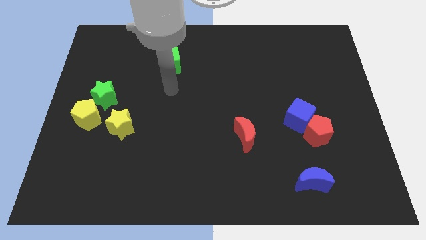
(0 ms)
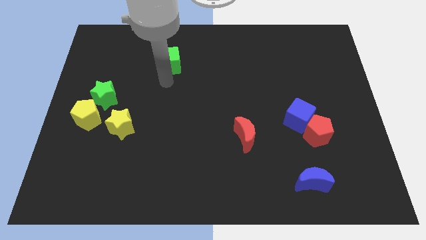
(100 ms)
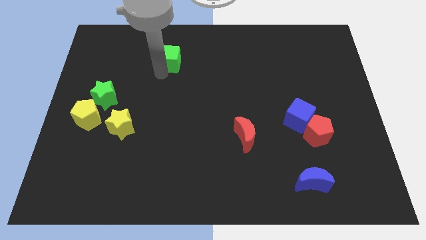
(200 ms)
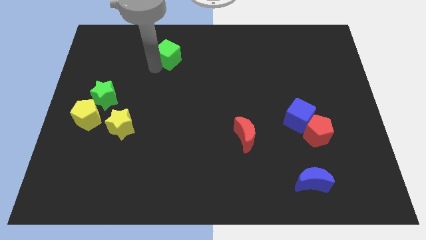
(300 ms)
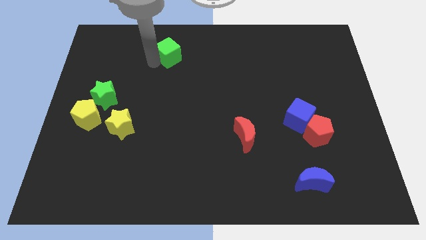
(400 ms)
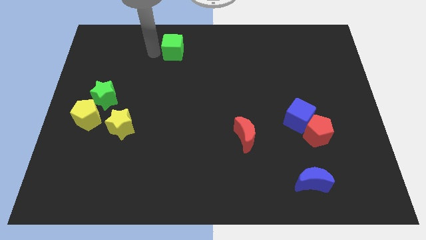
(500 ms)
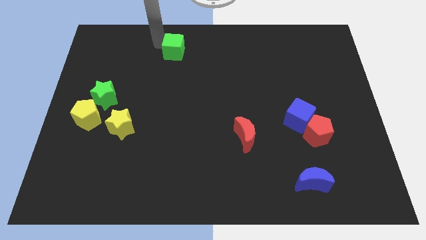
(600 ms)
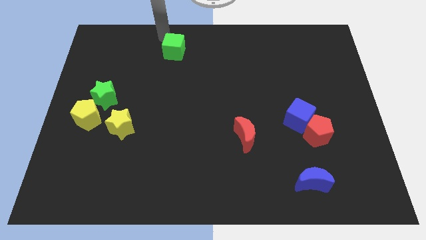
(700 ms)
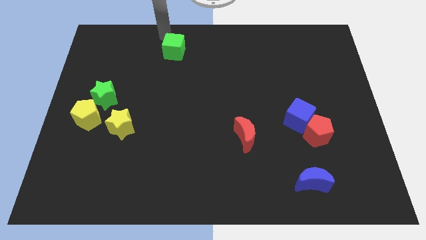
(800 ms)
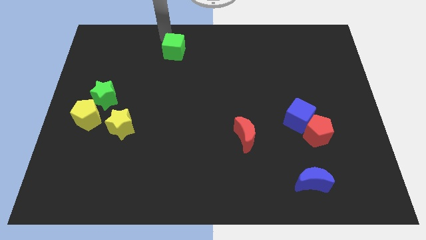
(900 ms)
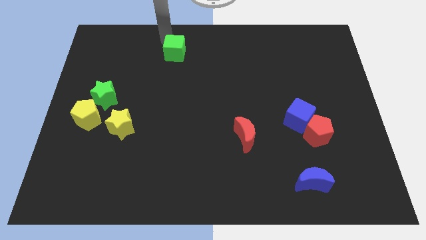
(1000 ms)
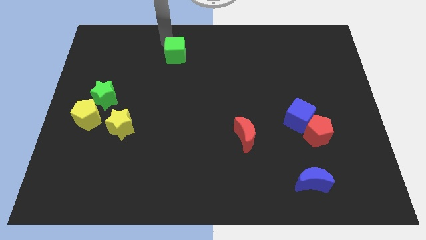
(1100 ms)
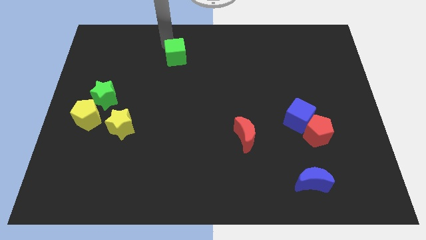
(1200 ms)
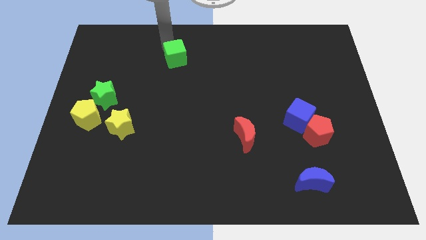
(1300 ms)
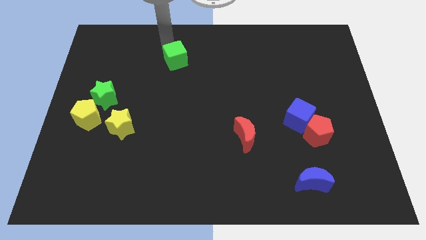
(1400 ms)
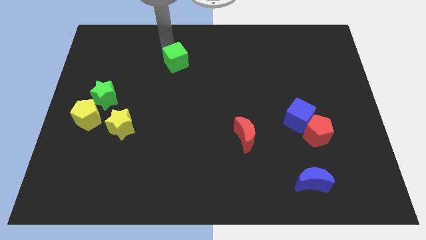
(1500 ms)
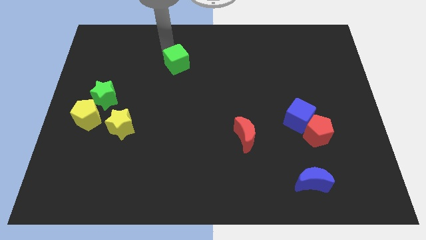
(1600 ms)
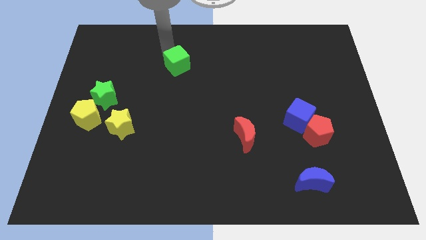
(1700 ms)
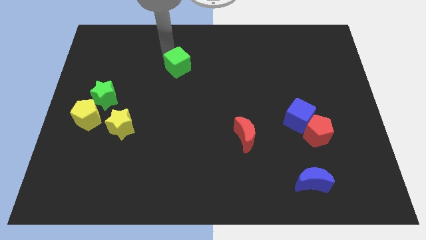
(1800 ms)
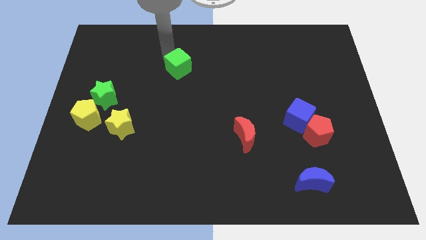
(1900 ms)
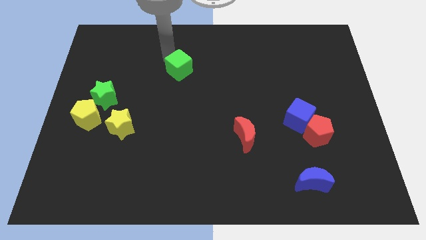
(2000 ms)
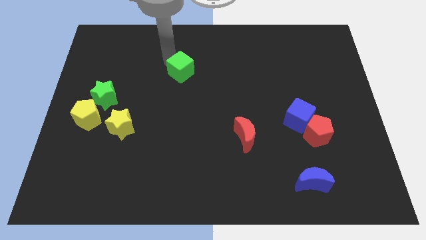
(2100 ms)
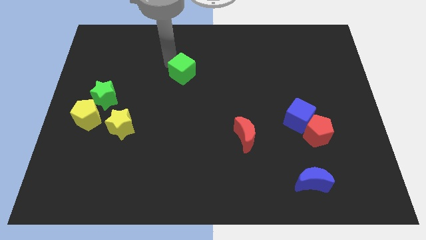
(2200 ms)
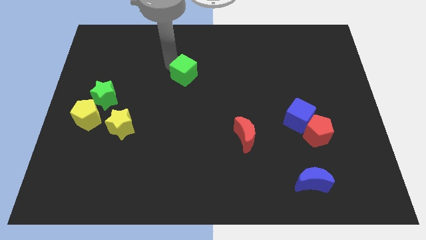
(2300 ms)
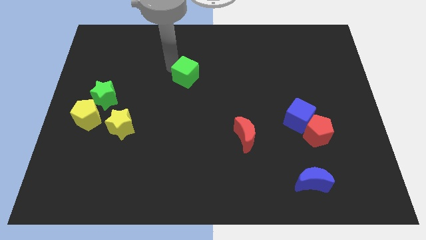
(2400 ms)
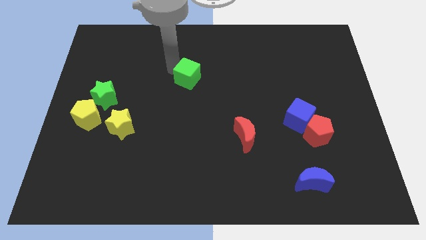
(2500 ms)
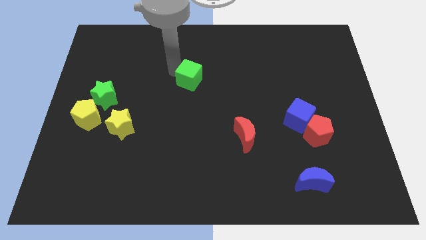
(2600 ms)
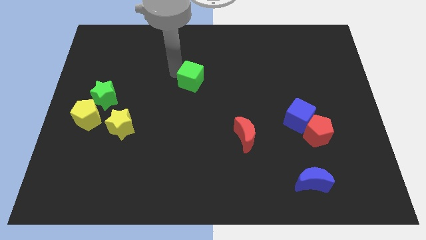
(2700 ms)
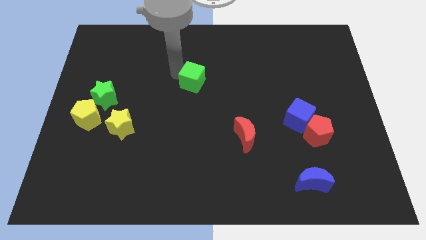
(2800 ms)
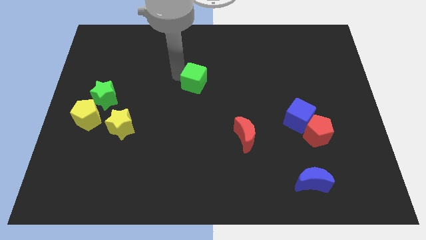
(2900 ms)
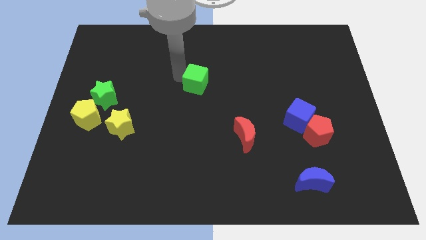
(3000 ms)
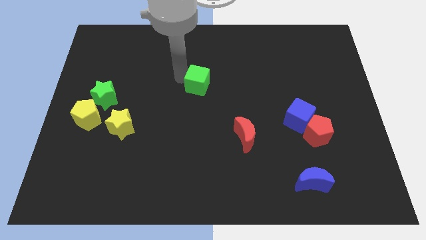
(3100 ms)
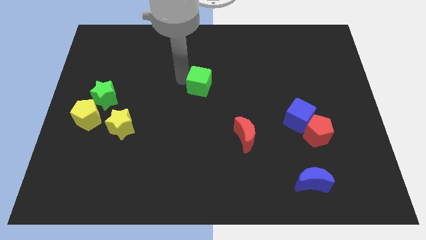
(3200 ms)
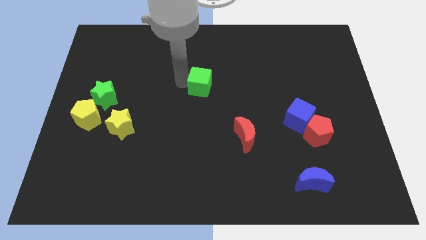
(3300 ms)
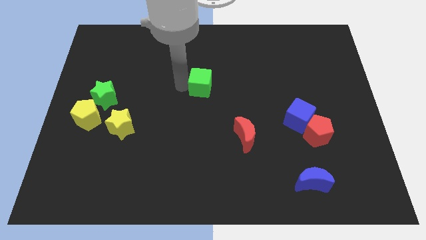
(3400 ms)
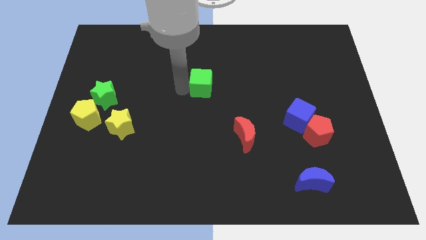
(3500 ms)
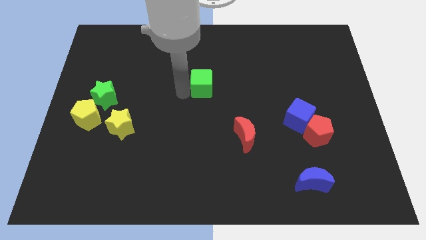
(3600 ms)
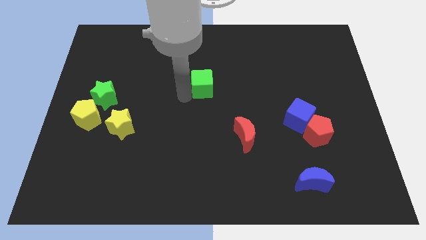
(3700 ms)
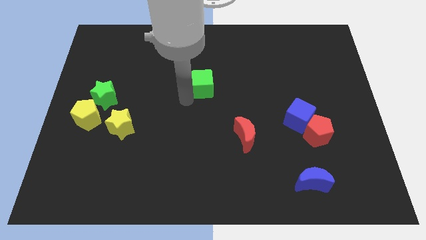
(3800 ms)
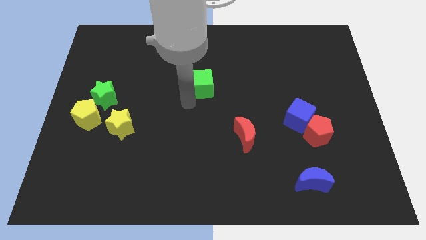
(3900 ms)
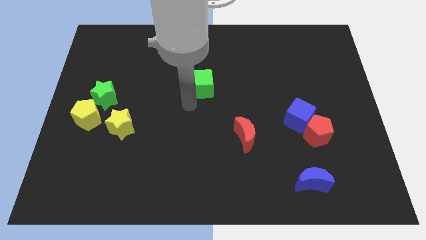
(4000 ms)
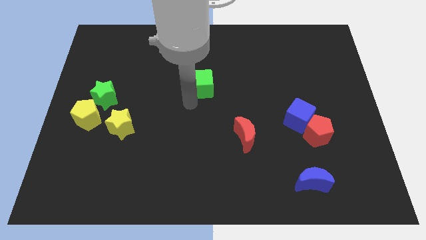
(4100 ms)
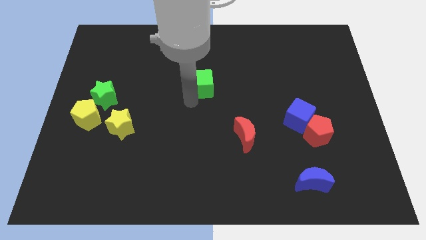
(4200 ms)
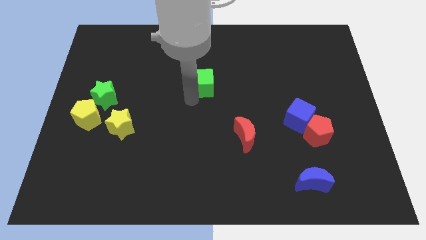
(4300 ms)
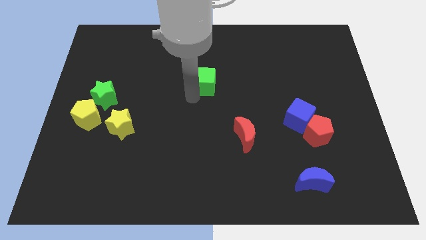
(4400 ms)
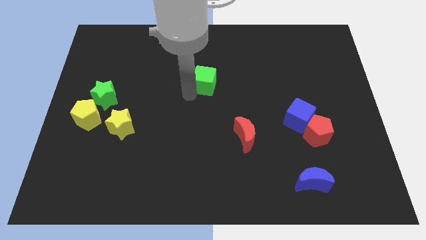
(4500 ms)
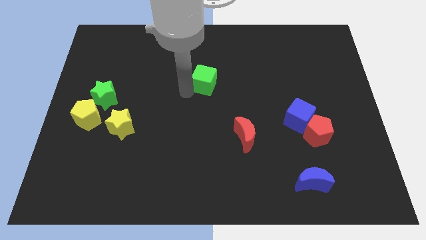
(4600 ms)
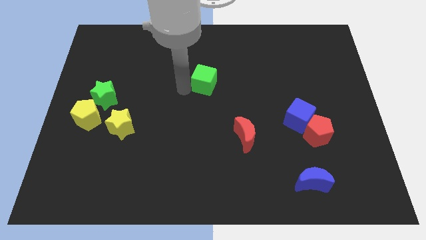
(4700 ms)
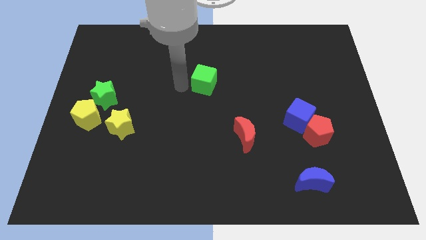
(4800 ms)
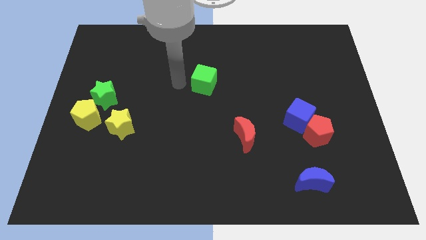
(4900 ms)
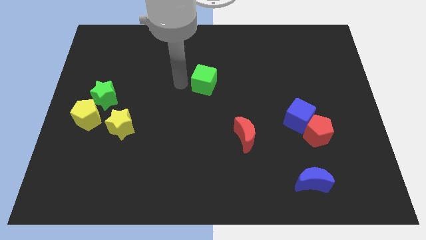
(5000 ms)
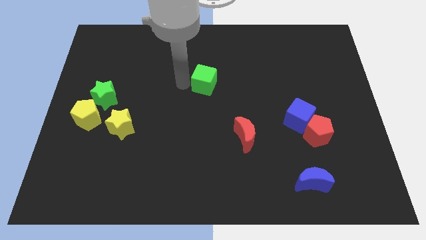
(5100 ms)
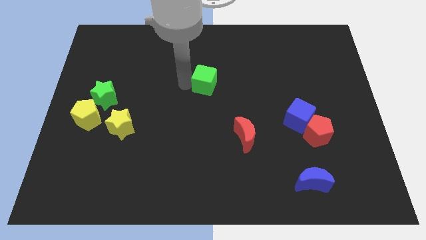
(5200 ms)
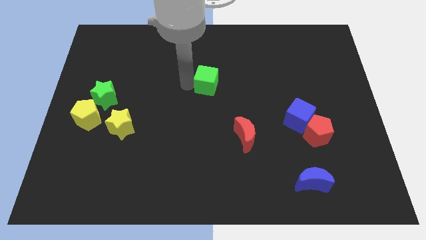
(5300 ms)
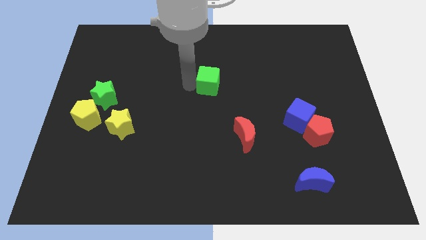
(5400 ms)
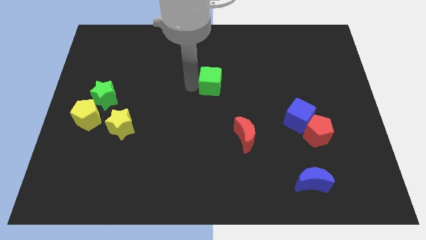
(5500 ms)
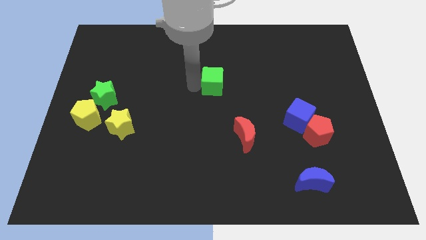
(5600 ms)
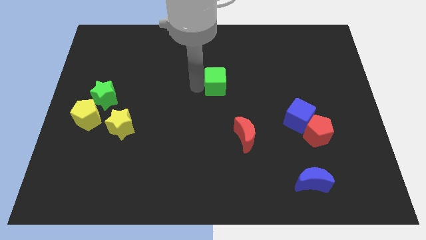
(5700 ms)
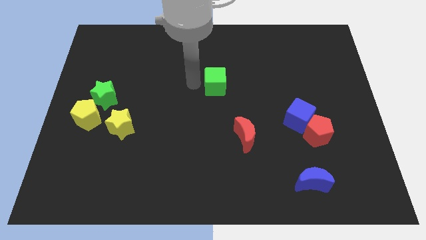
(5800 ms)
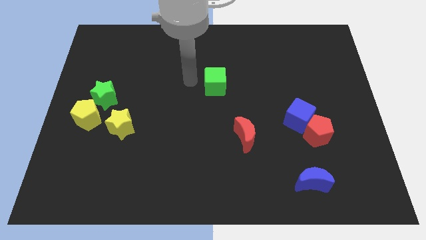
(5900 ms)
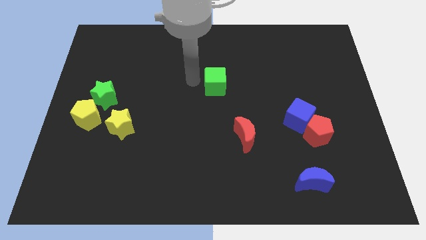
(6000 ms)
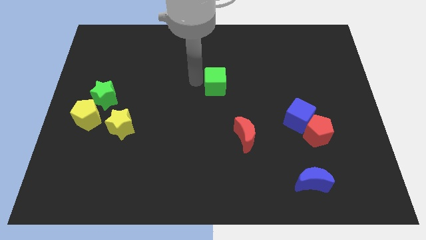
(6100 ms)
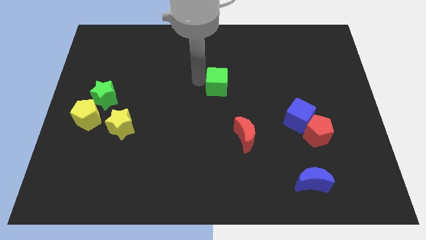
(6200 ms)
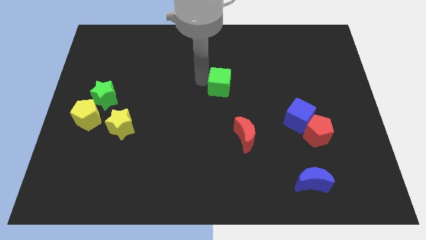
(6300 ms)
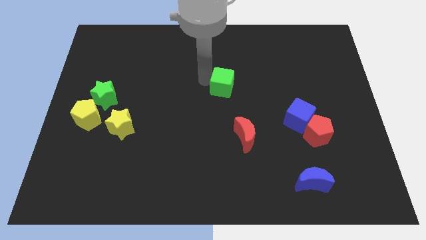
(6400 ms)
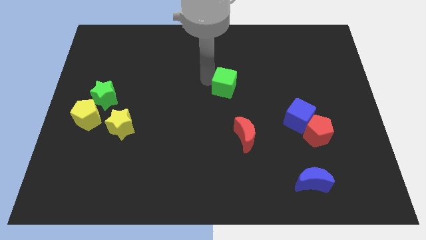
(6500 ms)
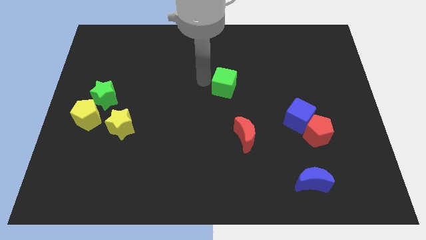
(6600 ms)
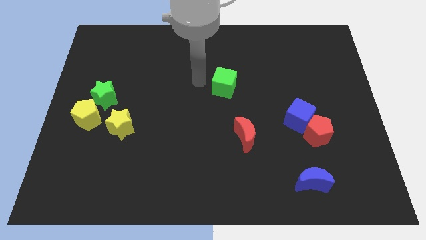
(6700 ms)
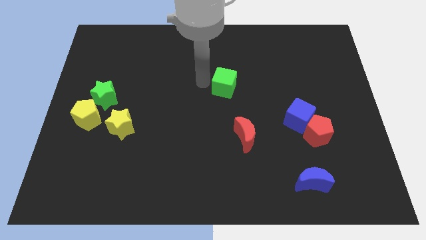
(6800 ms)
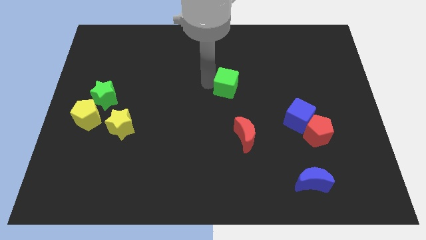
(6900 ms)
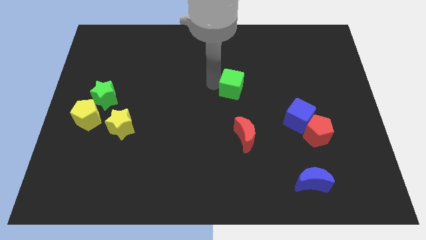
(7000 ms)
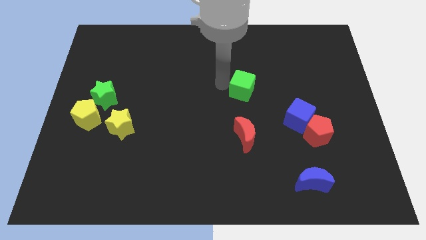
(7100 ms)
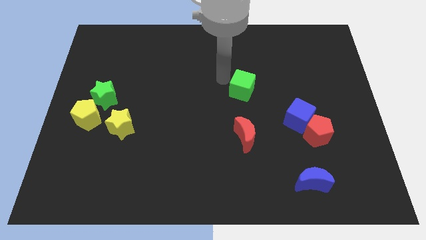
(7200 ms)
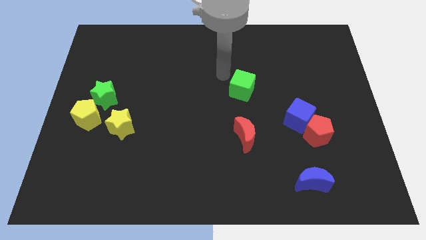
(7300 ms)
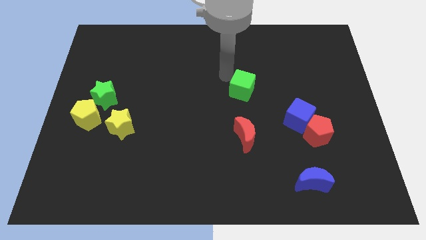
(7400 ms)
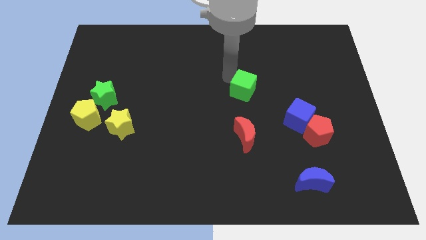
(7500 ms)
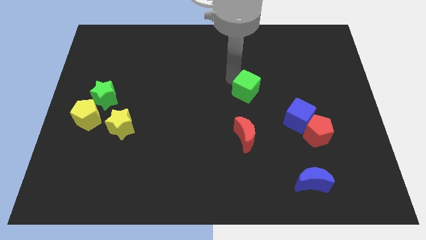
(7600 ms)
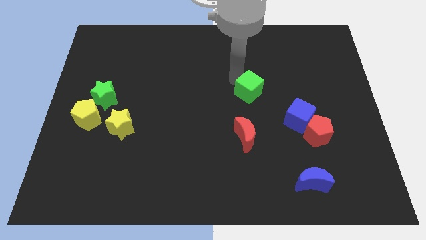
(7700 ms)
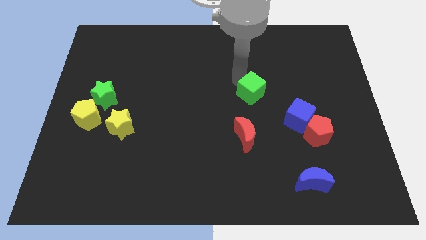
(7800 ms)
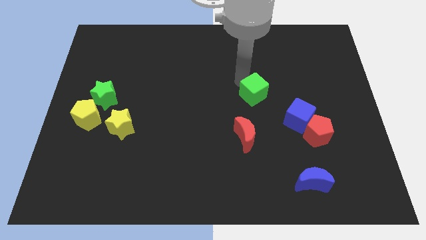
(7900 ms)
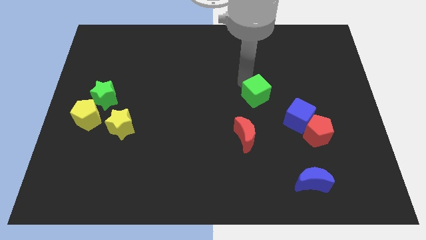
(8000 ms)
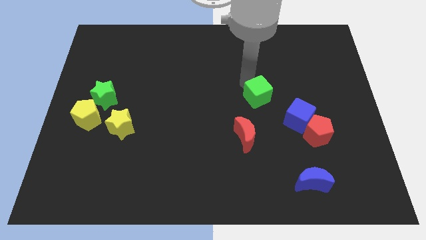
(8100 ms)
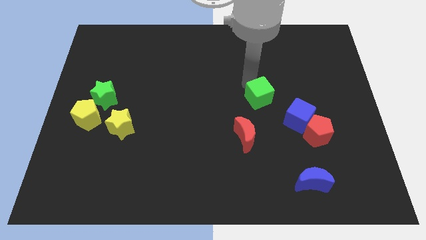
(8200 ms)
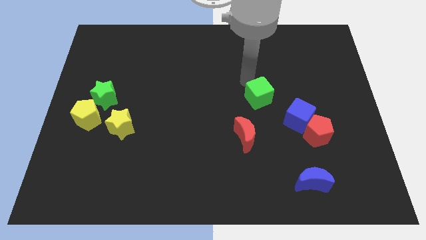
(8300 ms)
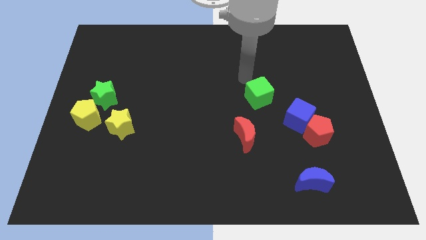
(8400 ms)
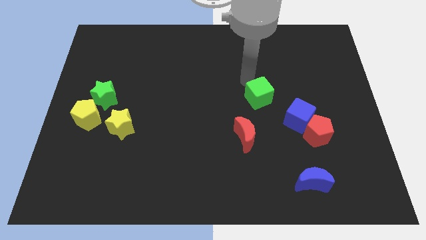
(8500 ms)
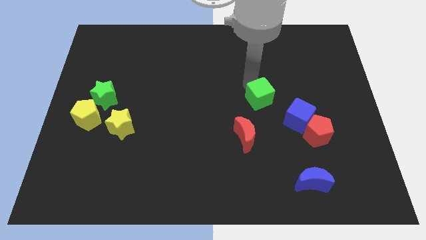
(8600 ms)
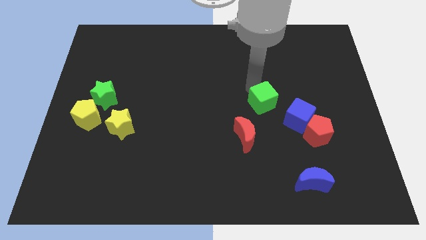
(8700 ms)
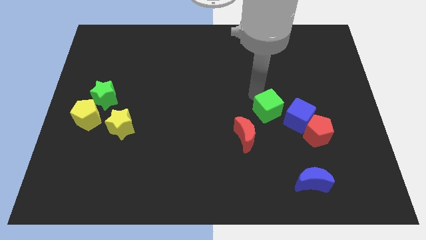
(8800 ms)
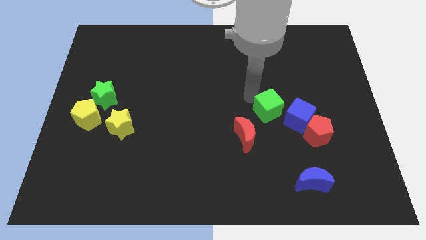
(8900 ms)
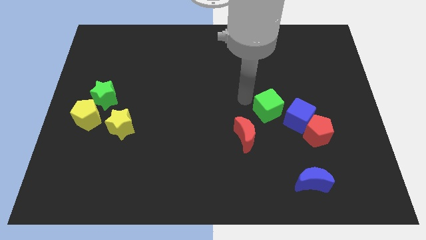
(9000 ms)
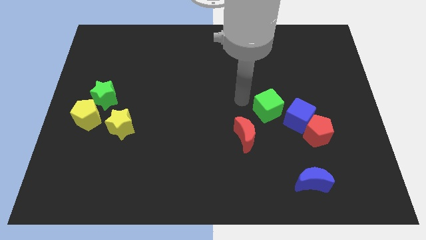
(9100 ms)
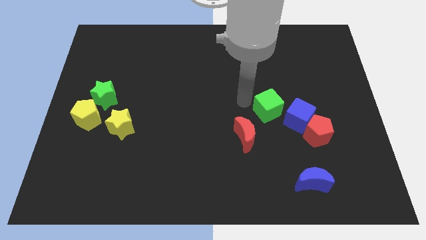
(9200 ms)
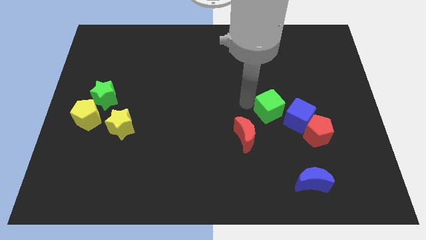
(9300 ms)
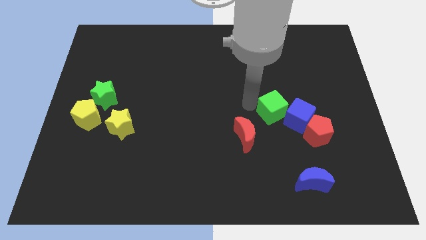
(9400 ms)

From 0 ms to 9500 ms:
slide the green cube next to the blue cube
